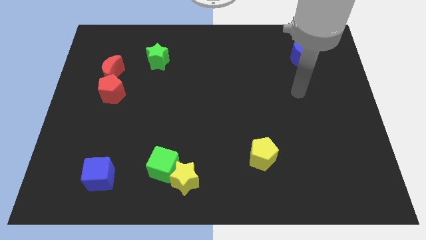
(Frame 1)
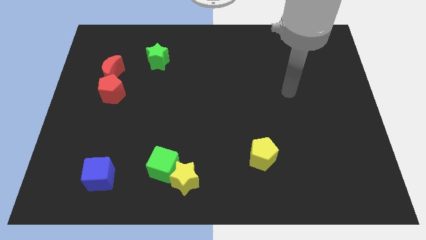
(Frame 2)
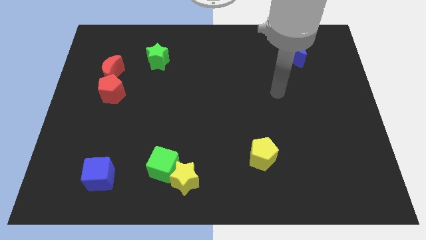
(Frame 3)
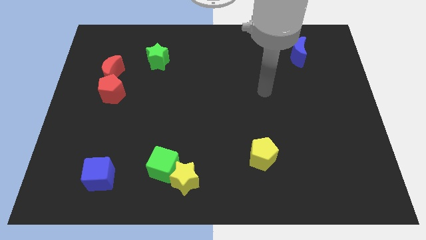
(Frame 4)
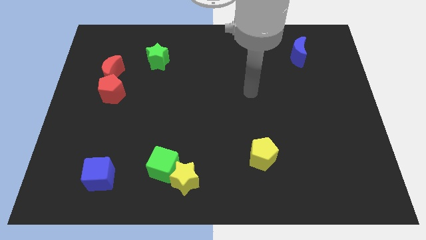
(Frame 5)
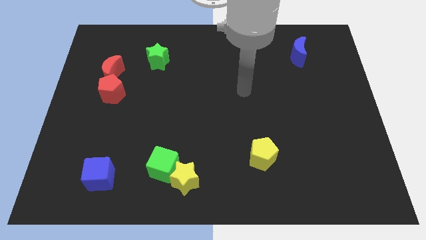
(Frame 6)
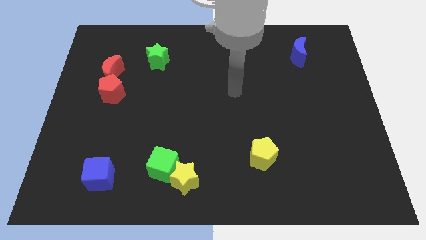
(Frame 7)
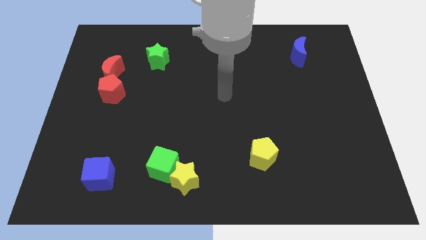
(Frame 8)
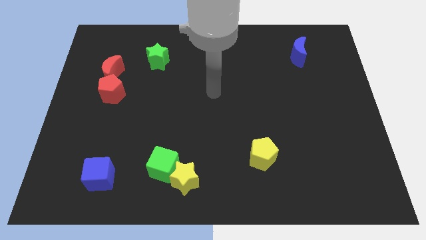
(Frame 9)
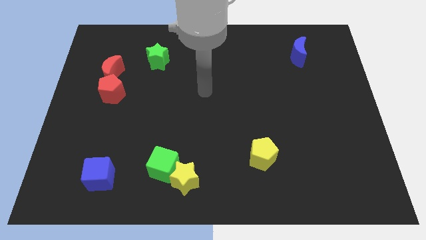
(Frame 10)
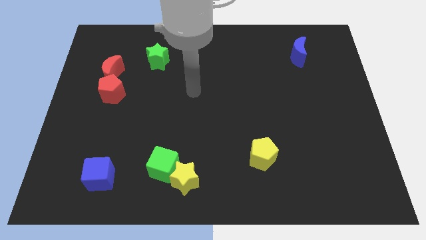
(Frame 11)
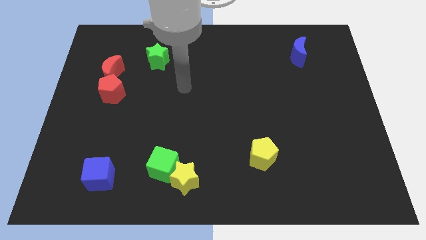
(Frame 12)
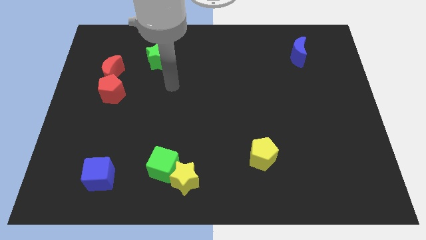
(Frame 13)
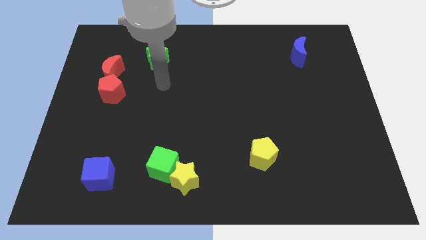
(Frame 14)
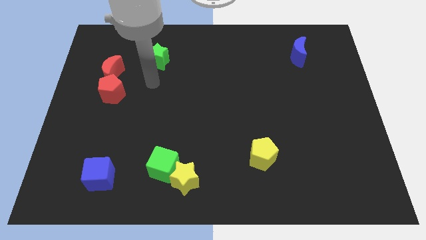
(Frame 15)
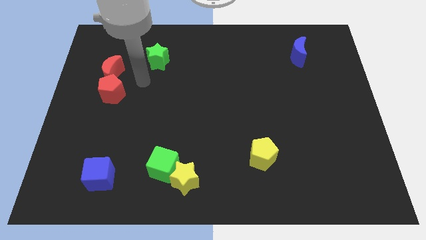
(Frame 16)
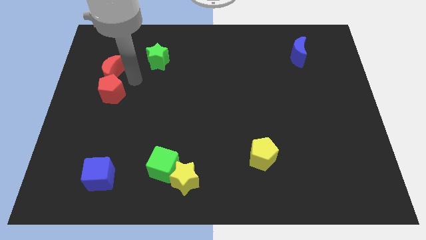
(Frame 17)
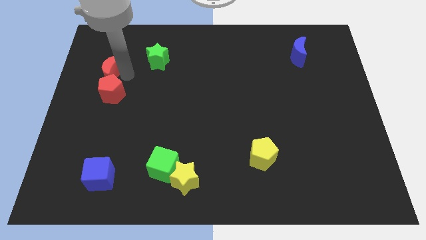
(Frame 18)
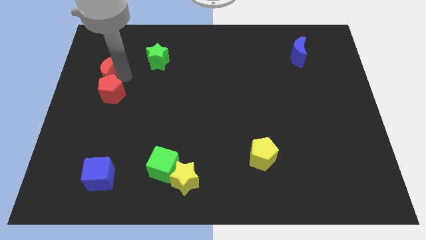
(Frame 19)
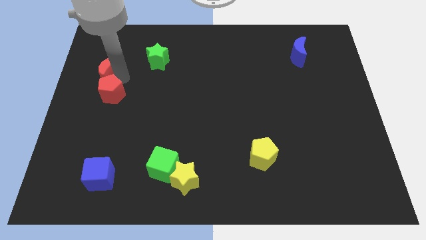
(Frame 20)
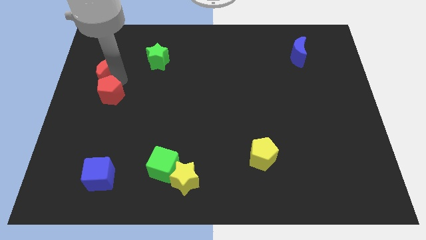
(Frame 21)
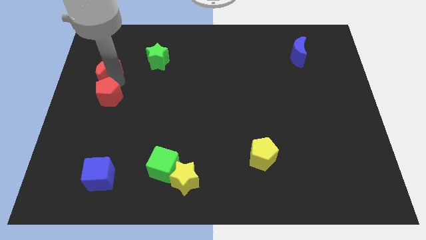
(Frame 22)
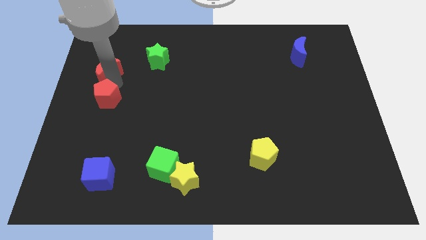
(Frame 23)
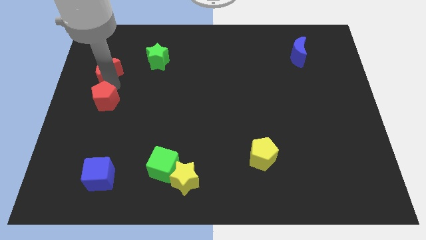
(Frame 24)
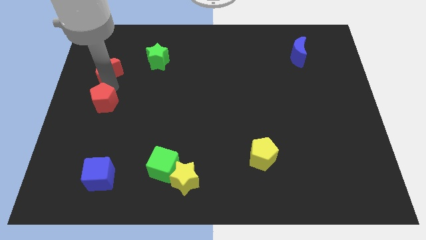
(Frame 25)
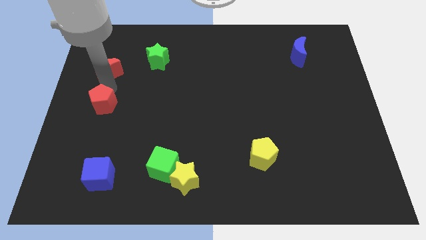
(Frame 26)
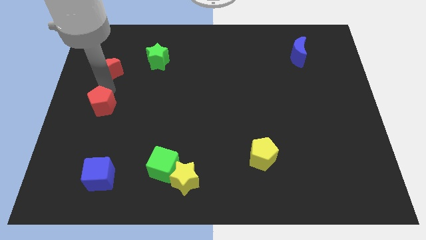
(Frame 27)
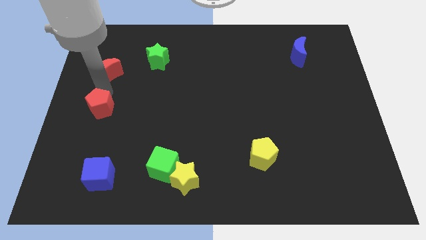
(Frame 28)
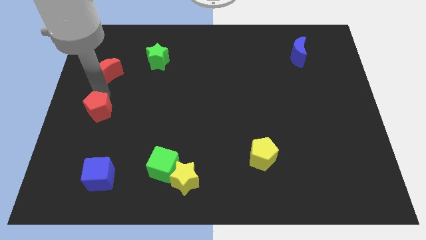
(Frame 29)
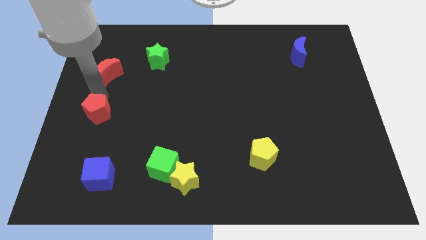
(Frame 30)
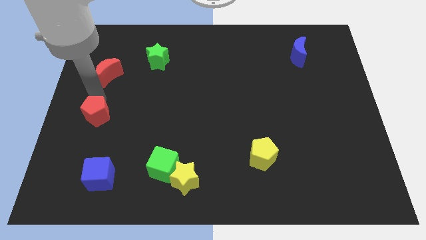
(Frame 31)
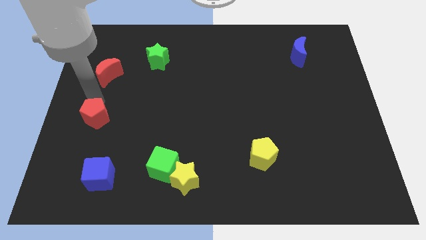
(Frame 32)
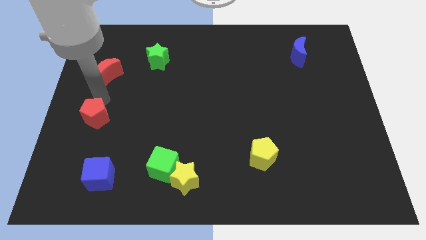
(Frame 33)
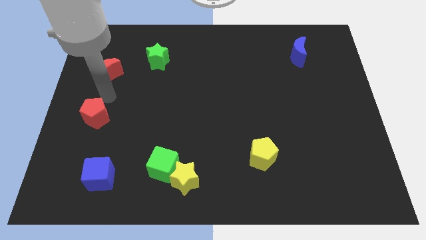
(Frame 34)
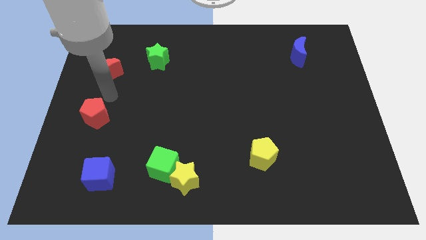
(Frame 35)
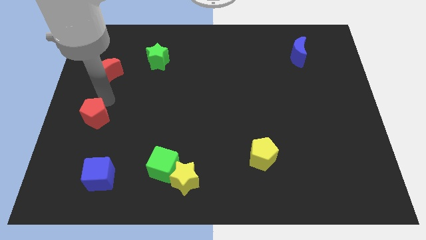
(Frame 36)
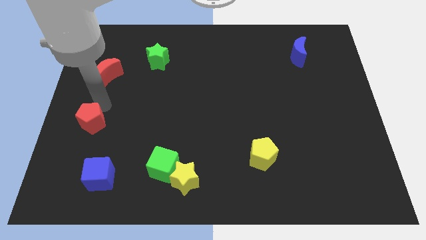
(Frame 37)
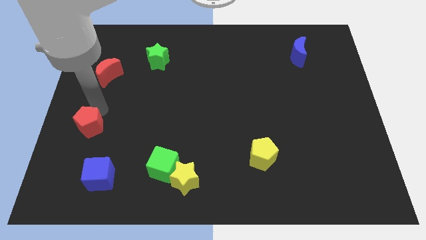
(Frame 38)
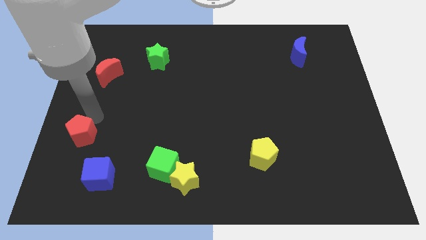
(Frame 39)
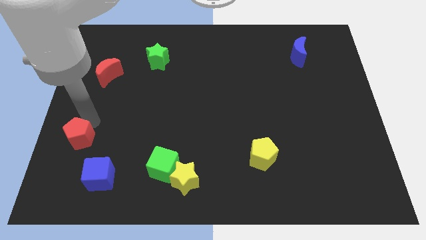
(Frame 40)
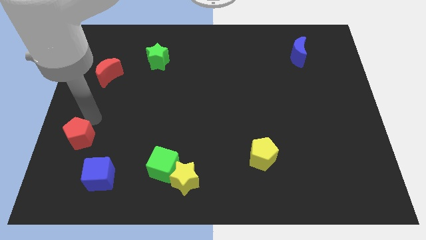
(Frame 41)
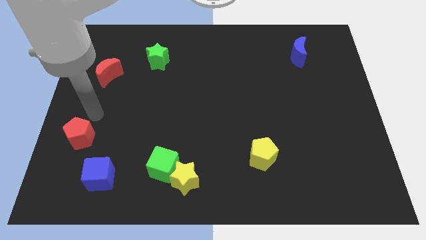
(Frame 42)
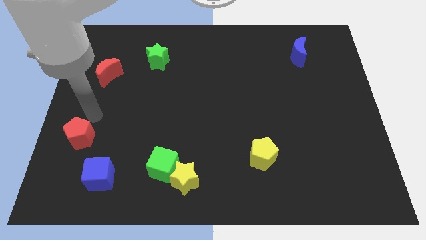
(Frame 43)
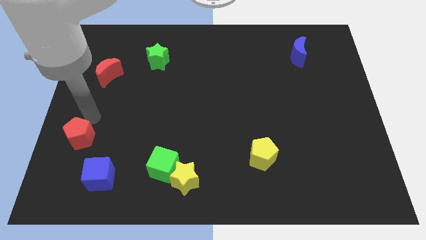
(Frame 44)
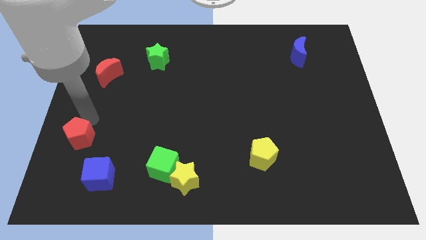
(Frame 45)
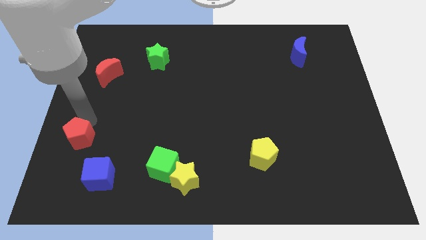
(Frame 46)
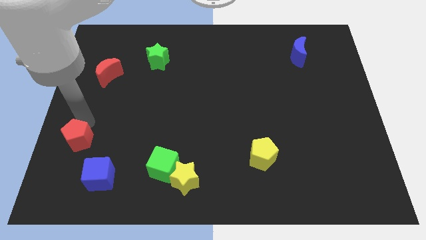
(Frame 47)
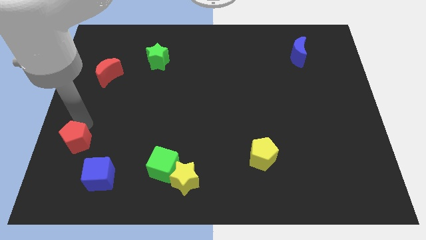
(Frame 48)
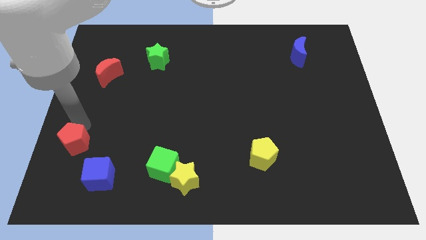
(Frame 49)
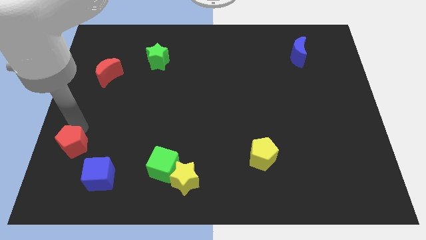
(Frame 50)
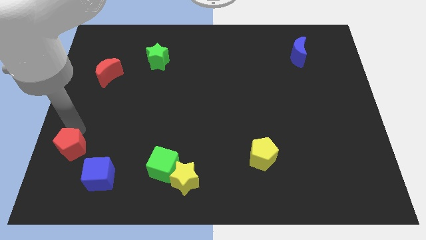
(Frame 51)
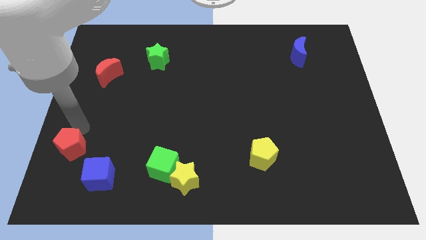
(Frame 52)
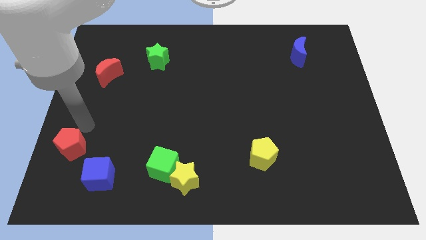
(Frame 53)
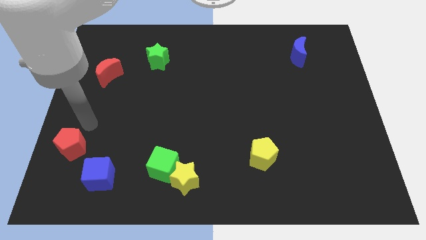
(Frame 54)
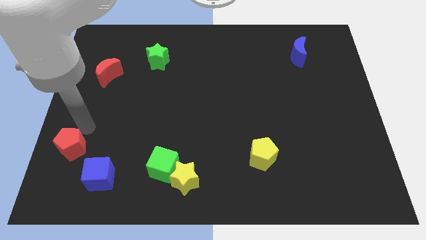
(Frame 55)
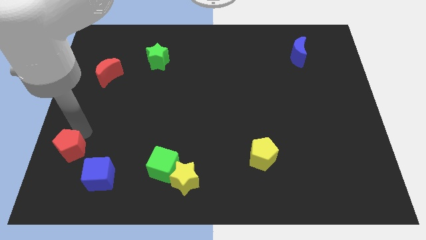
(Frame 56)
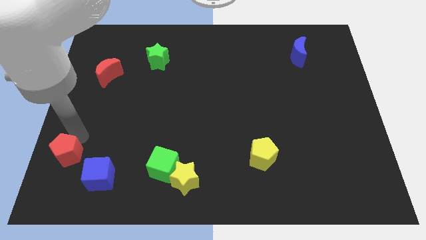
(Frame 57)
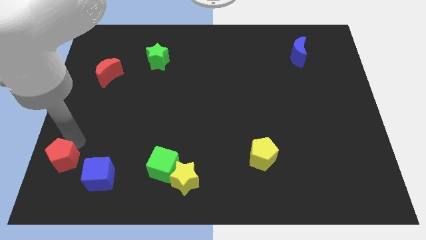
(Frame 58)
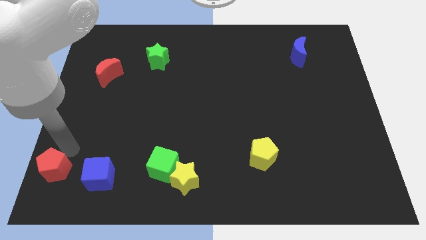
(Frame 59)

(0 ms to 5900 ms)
move the red pentagon to the bottom left of the board

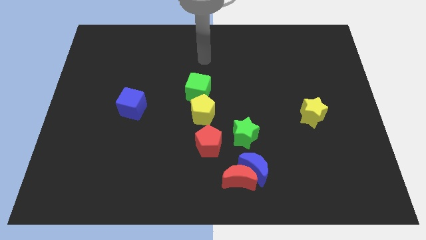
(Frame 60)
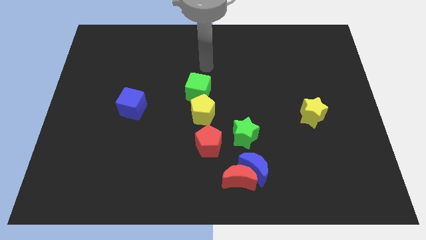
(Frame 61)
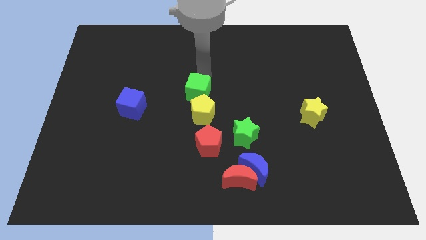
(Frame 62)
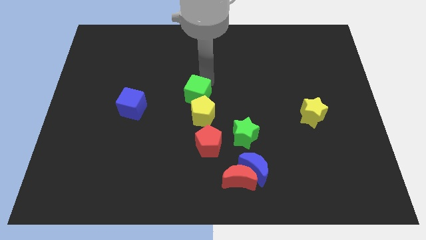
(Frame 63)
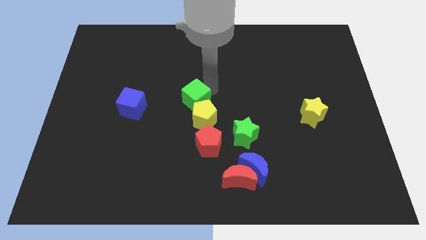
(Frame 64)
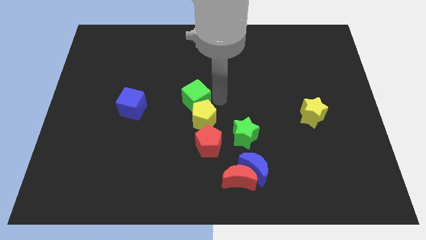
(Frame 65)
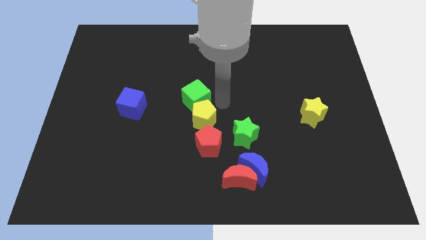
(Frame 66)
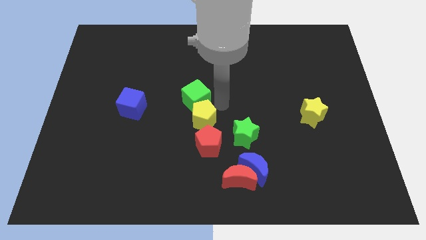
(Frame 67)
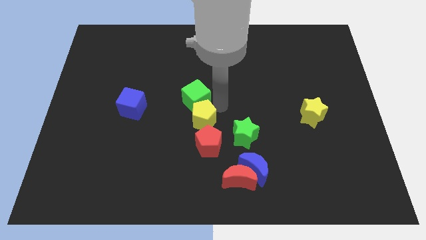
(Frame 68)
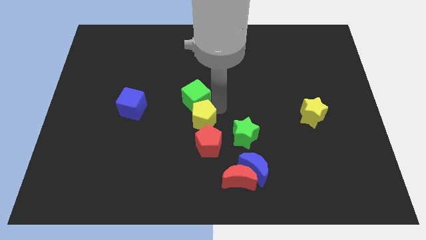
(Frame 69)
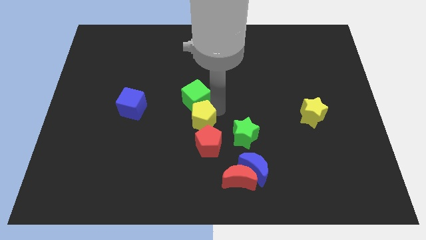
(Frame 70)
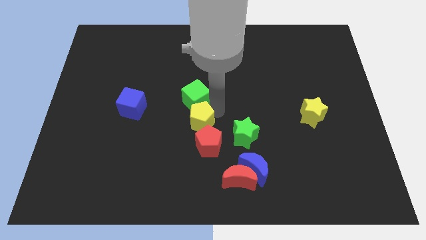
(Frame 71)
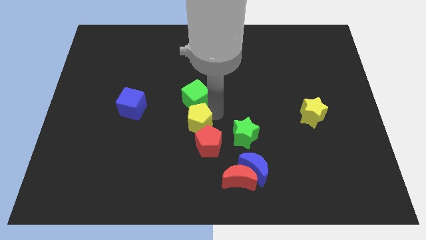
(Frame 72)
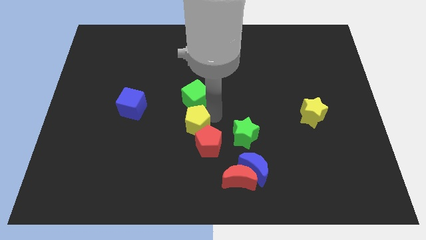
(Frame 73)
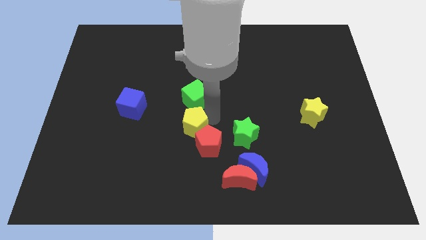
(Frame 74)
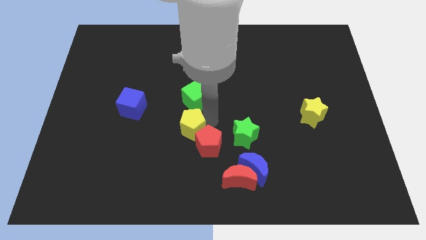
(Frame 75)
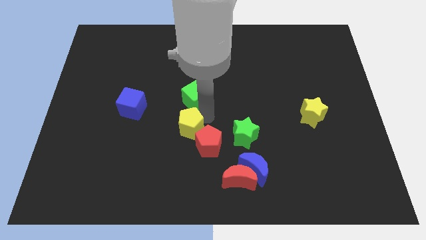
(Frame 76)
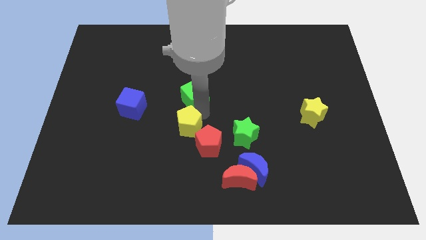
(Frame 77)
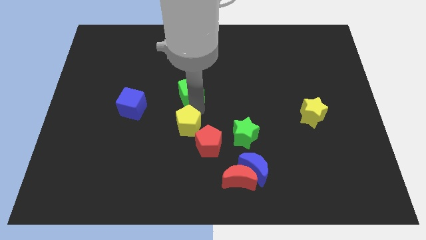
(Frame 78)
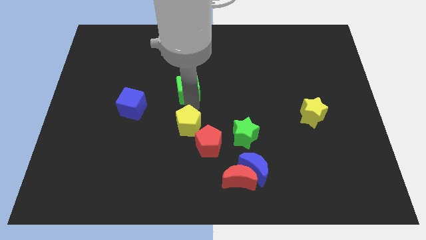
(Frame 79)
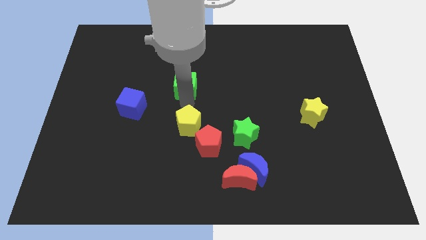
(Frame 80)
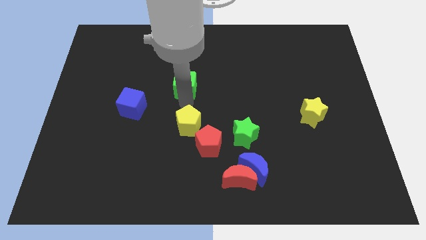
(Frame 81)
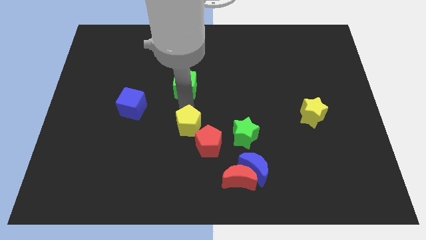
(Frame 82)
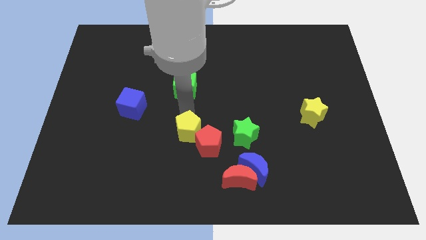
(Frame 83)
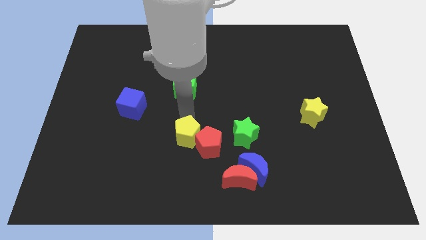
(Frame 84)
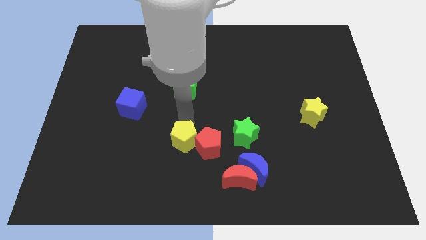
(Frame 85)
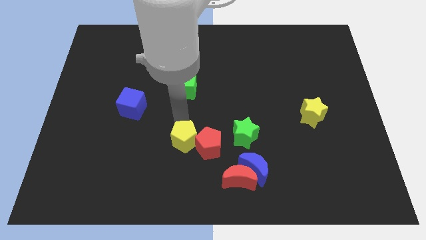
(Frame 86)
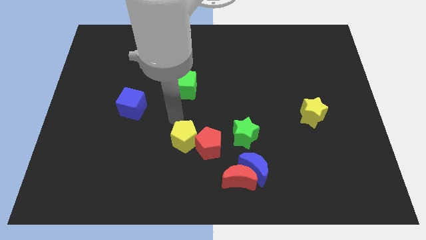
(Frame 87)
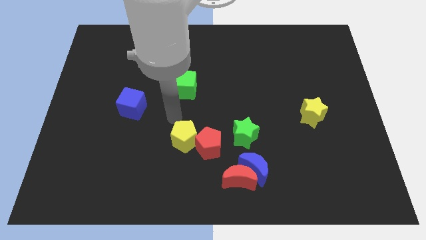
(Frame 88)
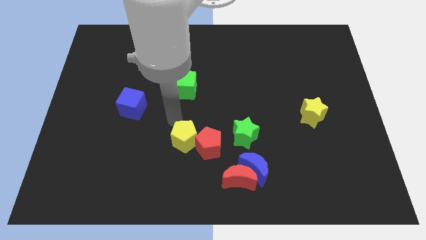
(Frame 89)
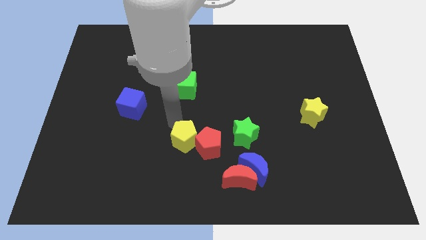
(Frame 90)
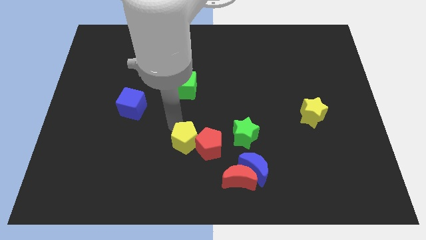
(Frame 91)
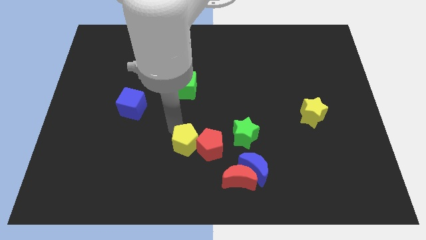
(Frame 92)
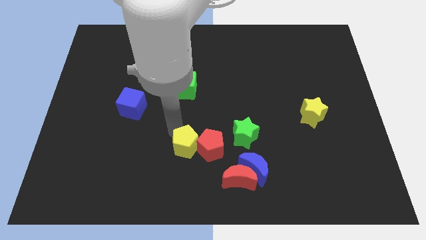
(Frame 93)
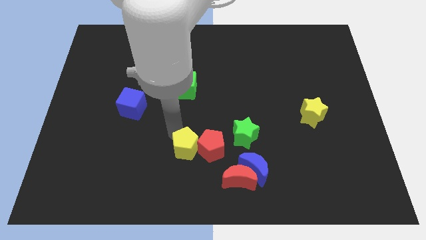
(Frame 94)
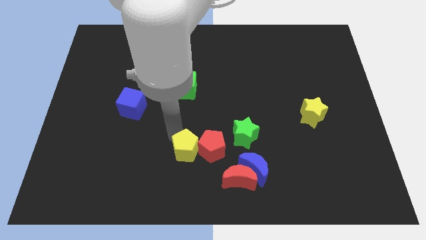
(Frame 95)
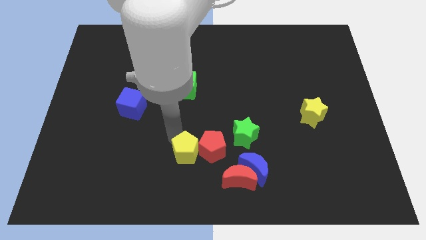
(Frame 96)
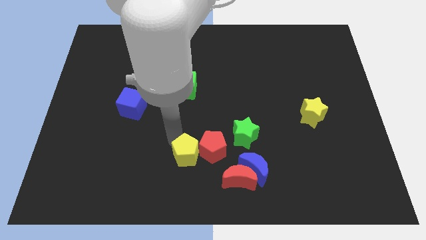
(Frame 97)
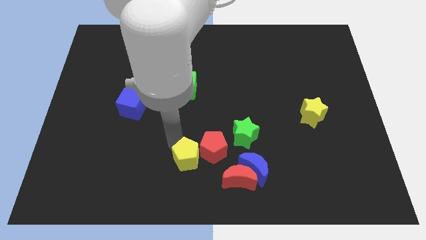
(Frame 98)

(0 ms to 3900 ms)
move the yellow pentagon to the bottom side
